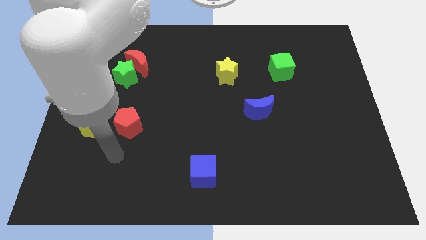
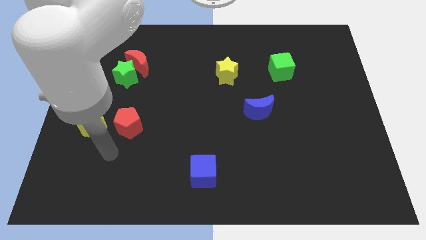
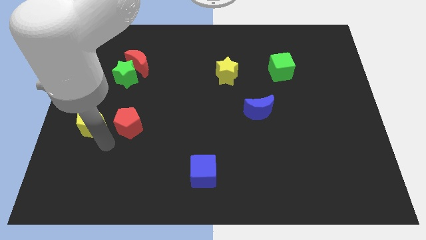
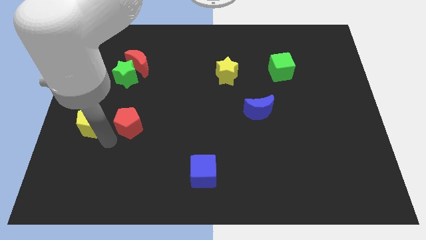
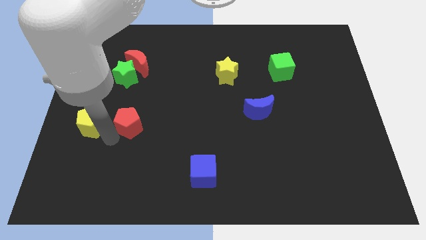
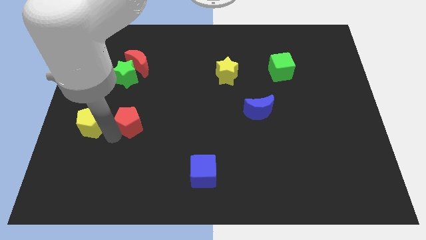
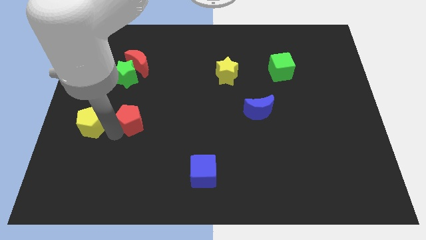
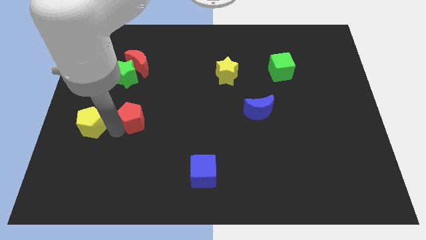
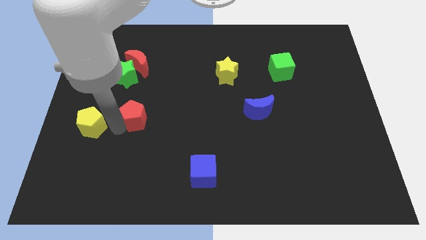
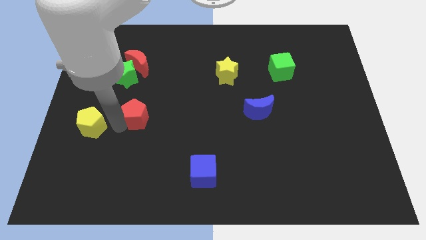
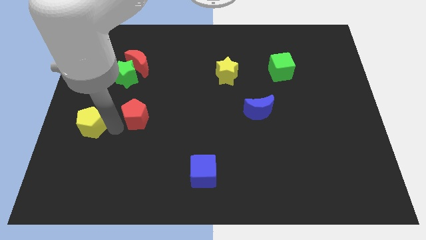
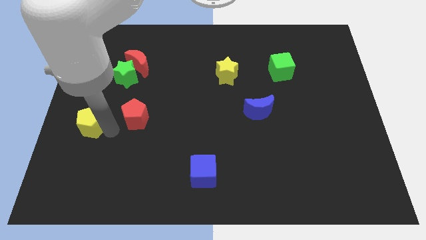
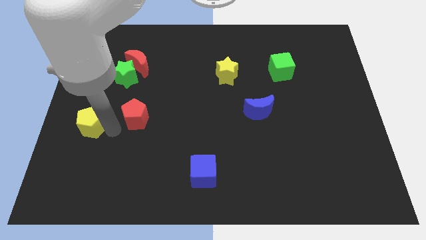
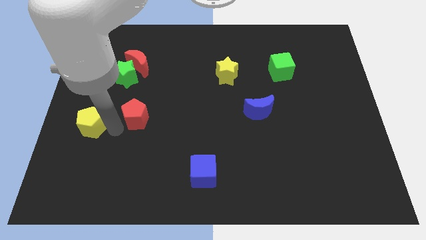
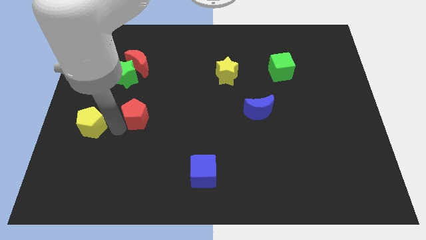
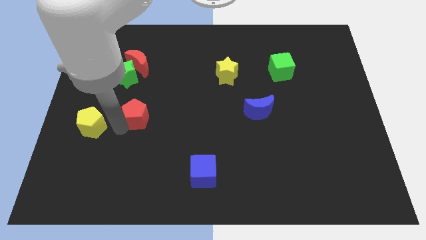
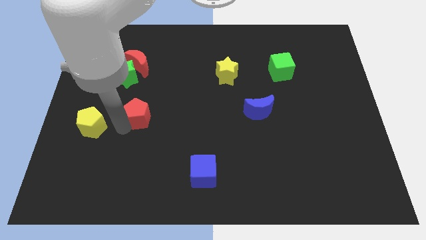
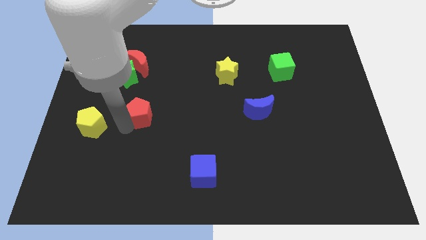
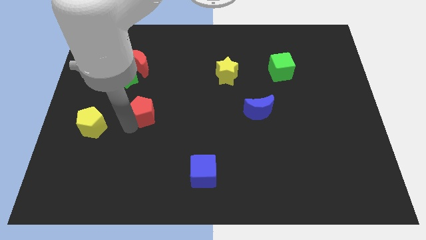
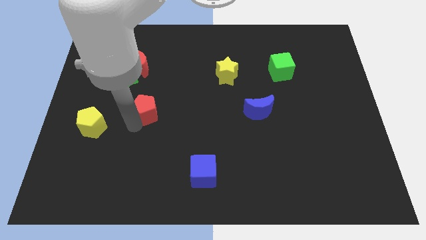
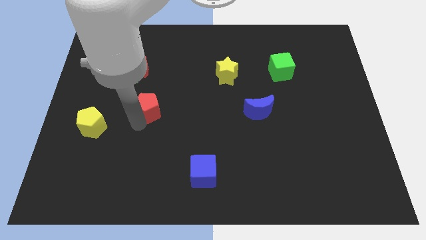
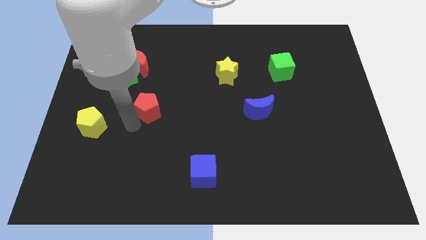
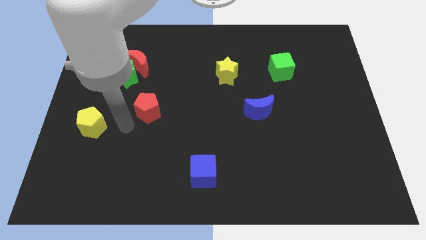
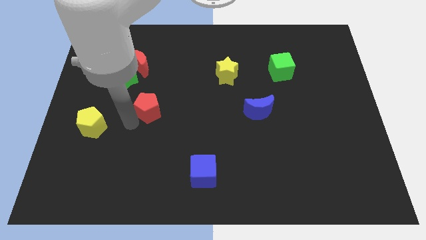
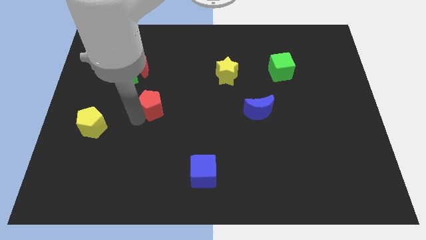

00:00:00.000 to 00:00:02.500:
slightly slide the red pentagon diagonally up and right

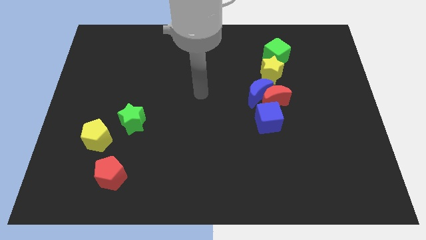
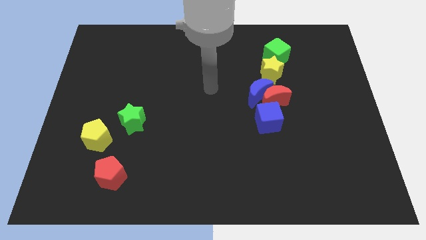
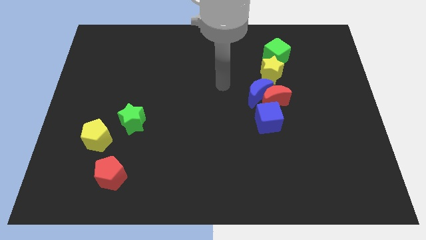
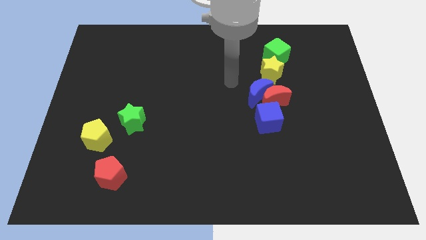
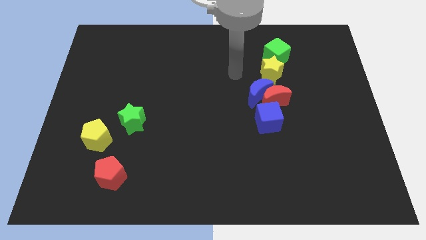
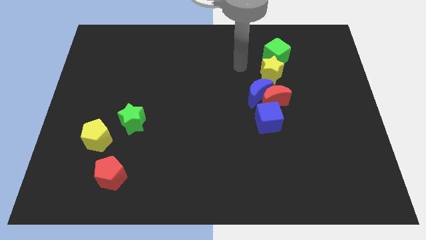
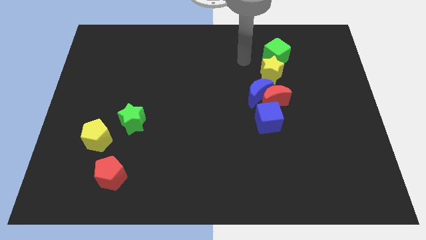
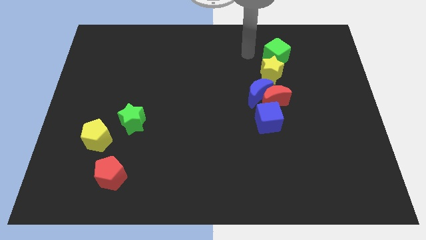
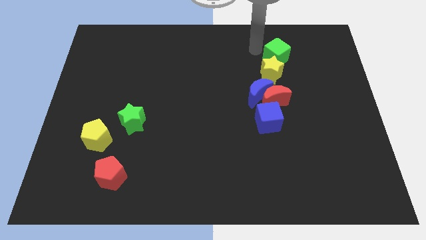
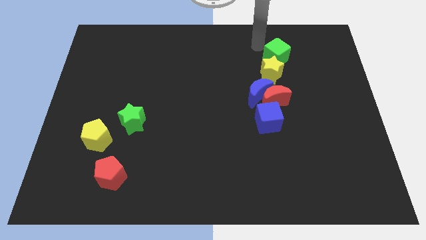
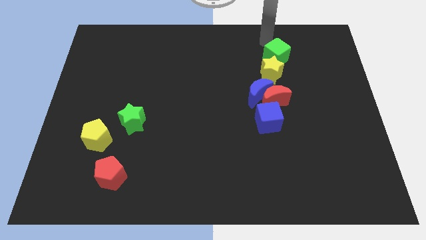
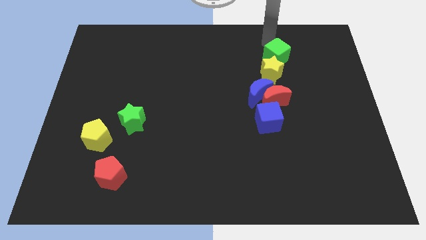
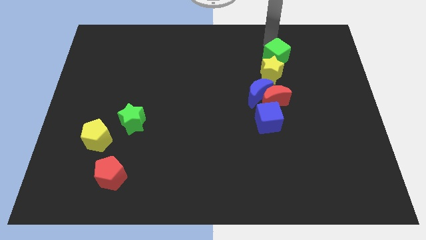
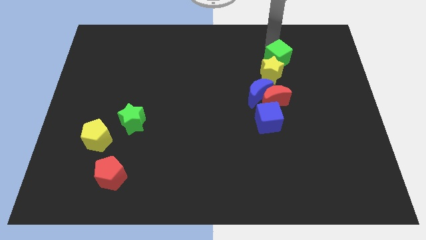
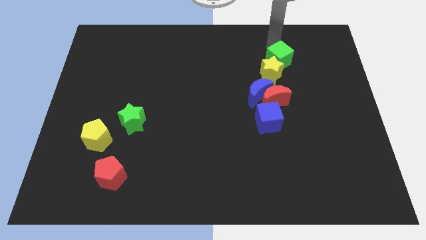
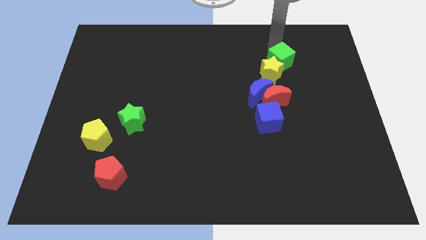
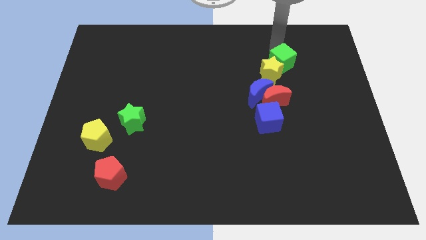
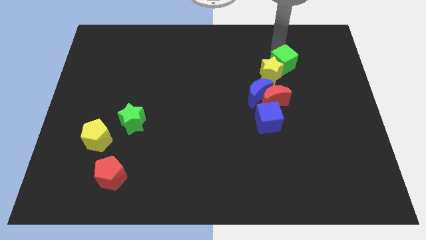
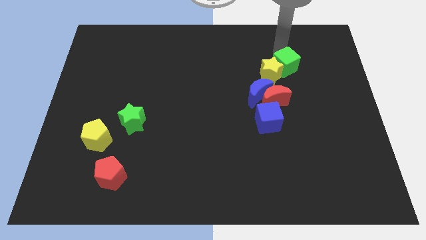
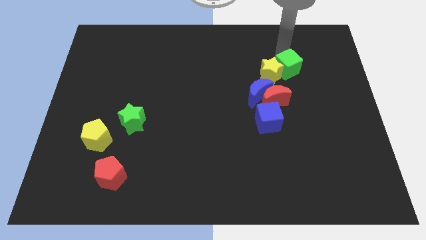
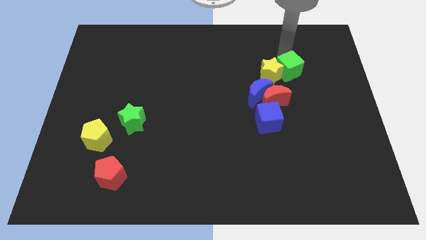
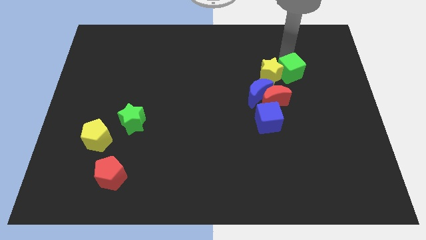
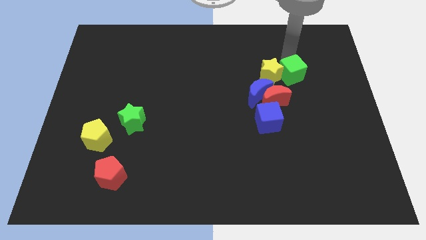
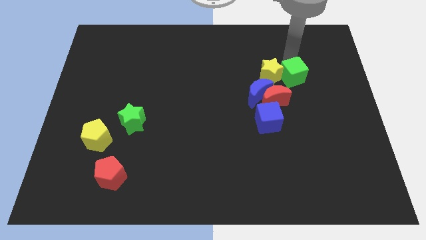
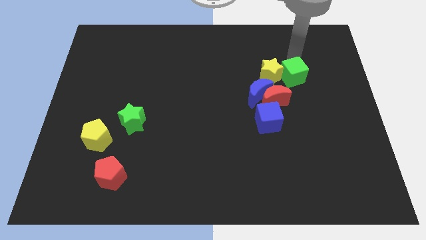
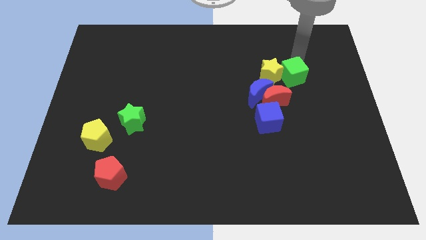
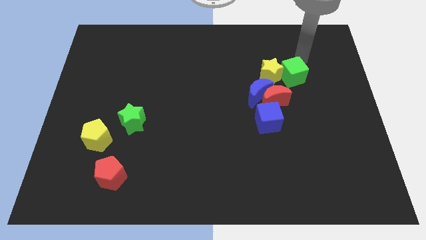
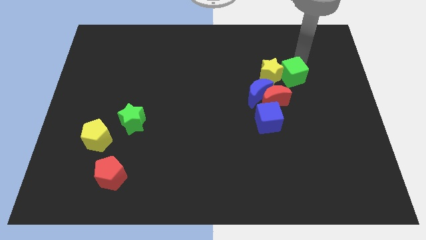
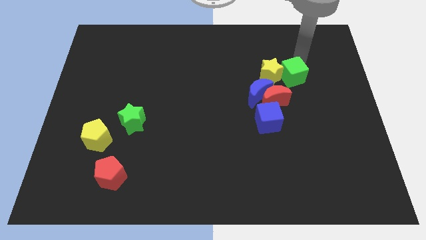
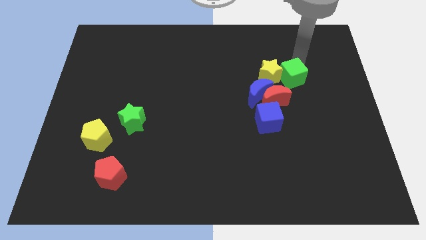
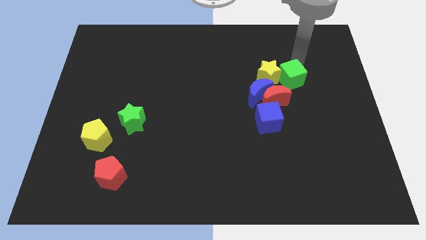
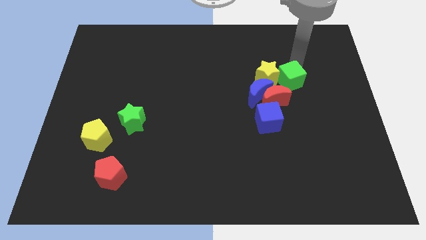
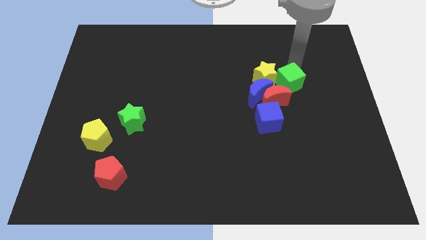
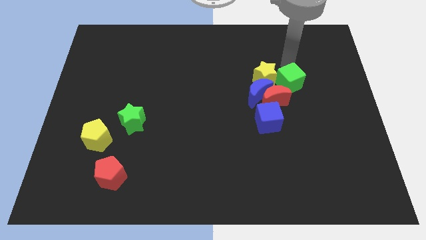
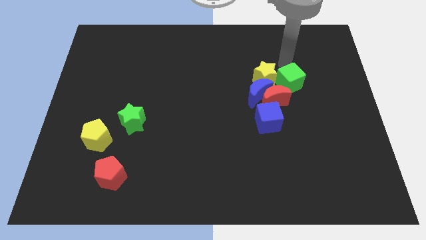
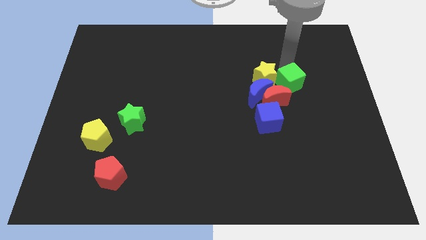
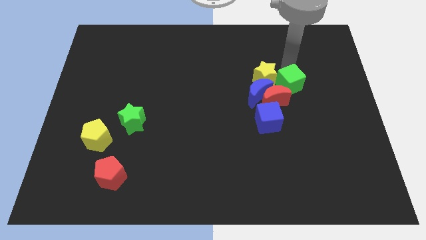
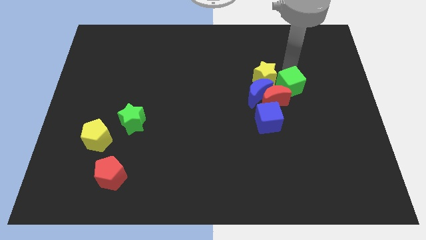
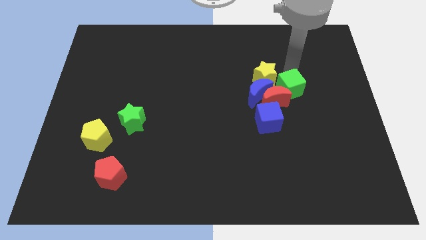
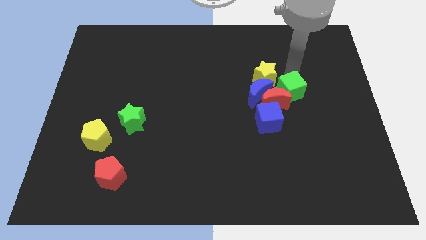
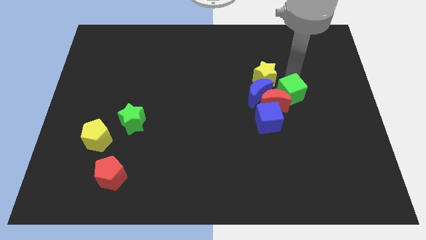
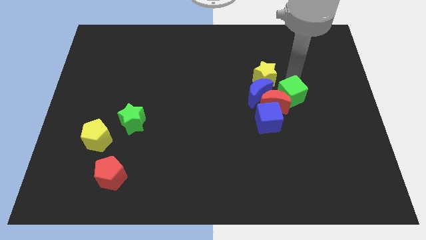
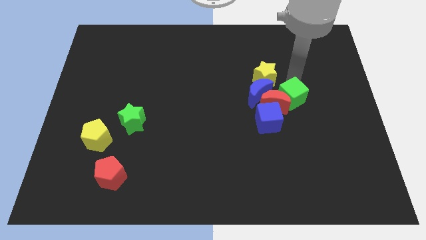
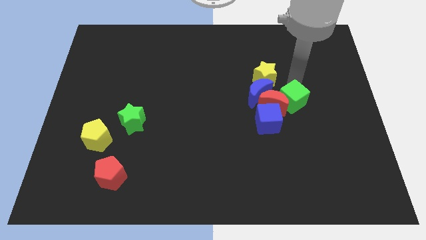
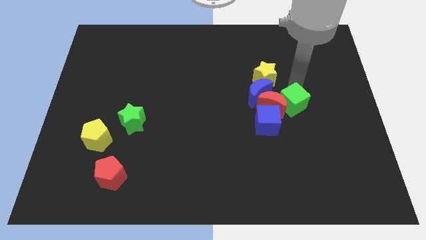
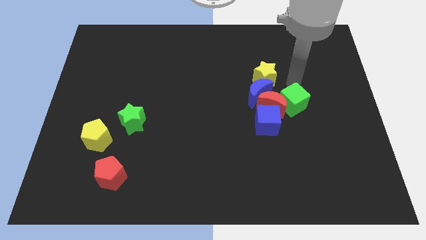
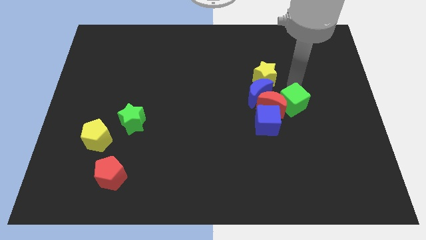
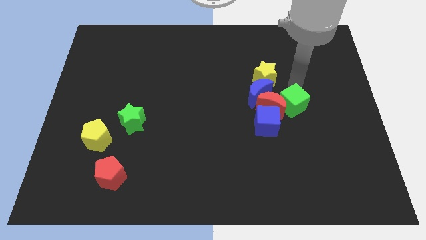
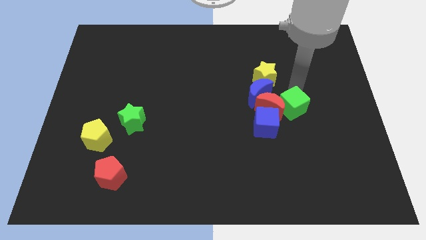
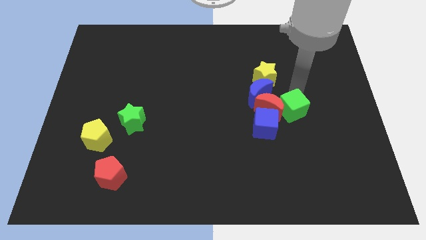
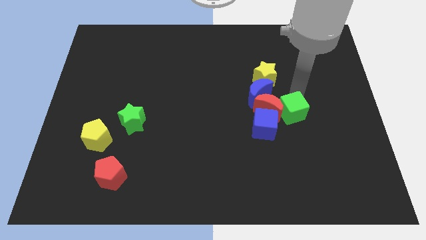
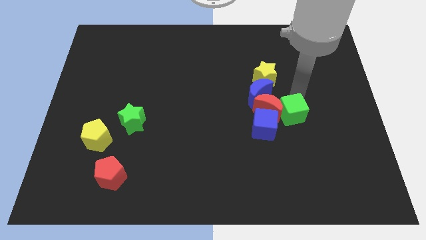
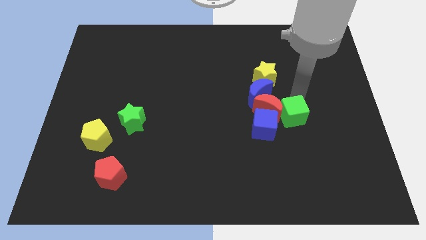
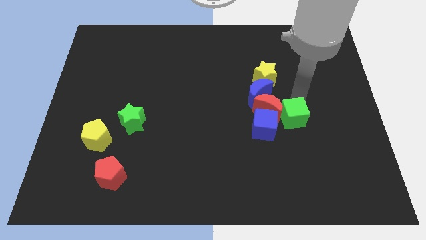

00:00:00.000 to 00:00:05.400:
slide the green cube down

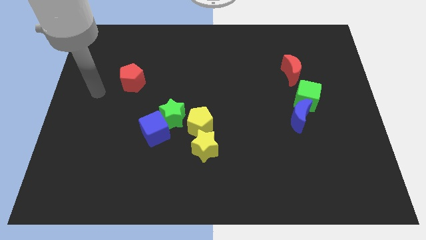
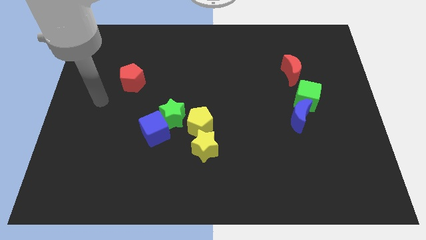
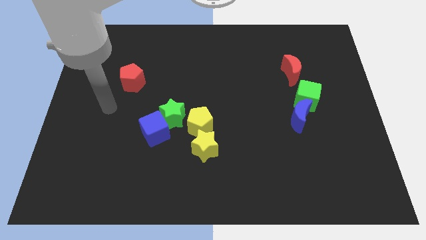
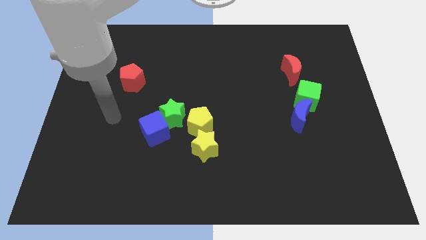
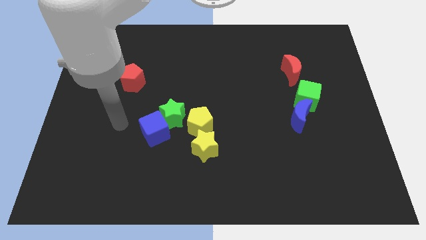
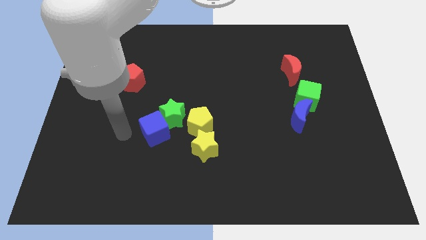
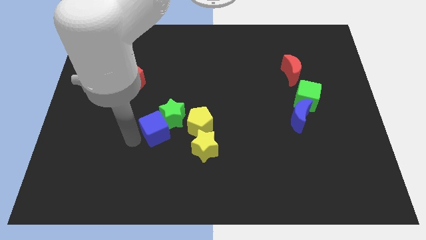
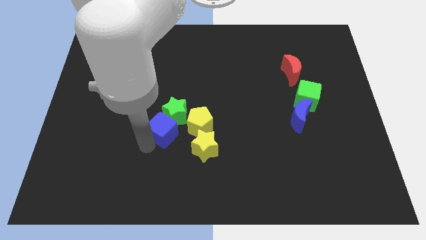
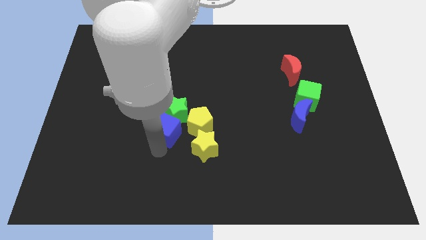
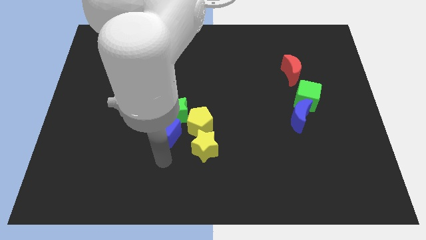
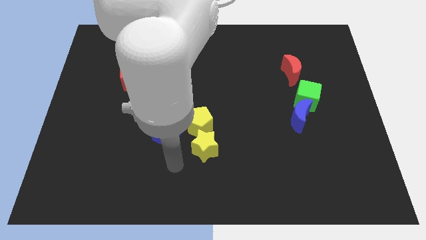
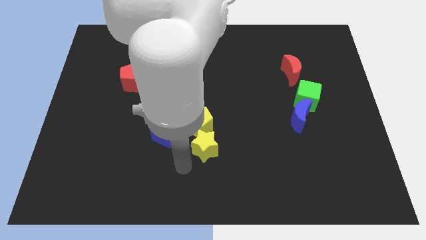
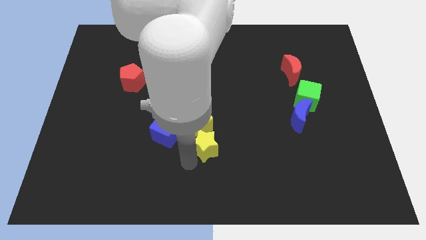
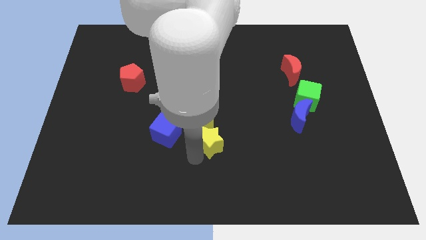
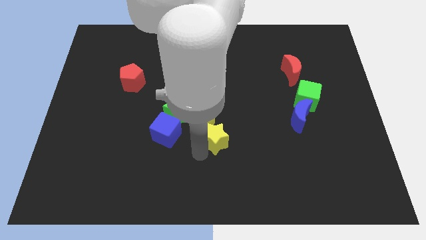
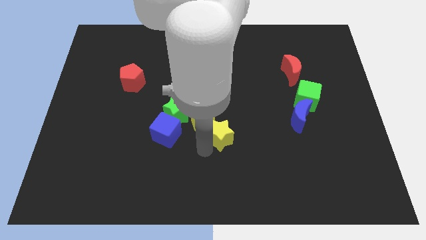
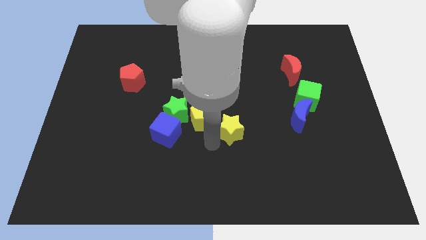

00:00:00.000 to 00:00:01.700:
slide the yellow star a little up and then right
